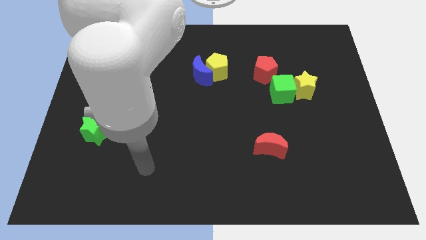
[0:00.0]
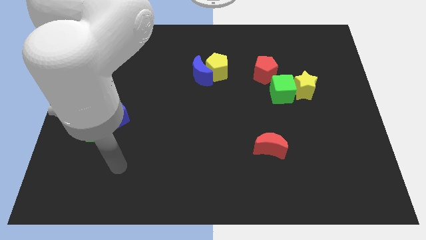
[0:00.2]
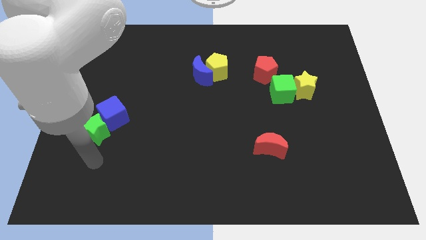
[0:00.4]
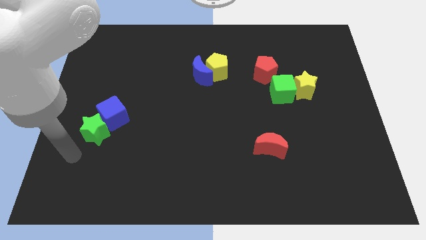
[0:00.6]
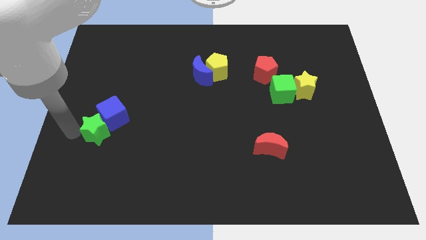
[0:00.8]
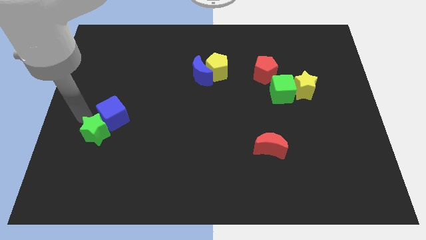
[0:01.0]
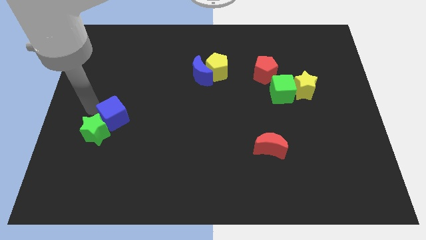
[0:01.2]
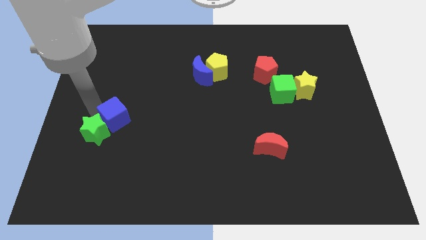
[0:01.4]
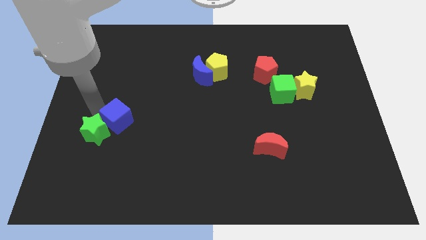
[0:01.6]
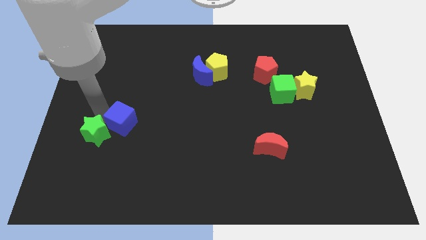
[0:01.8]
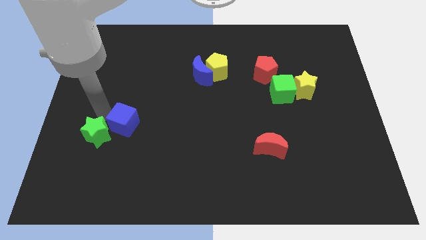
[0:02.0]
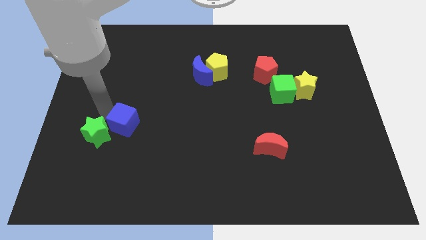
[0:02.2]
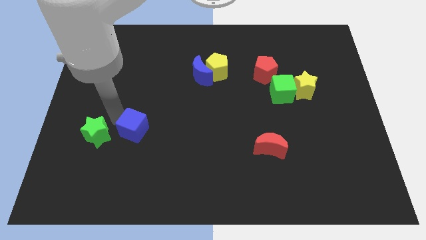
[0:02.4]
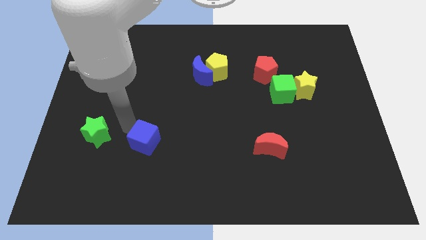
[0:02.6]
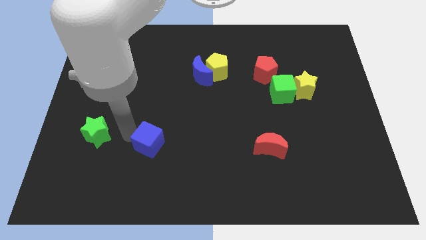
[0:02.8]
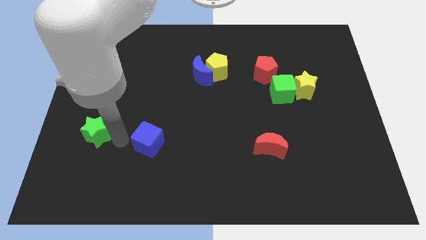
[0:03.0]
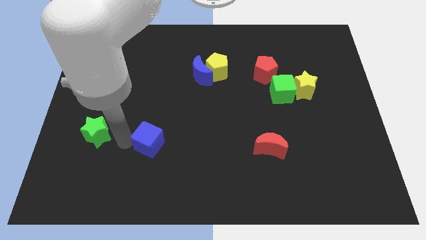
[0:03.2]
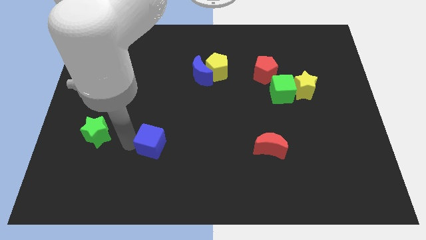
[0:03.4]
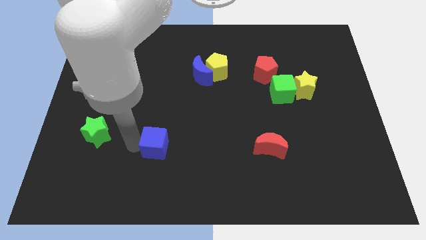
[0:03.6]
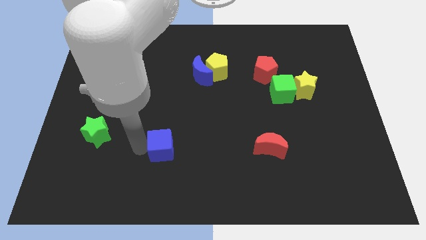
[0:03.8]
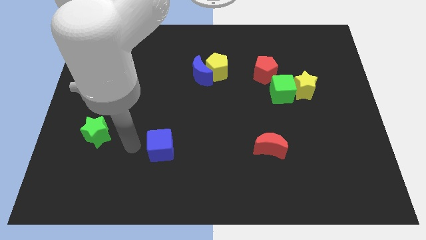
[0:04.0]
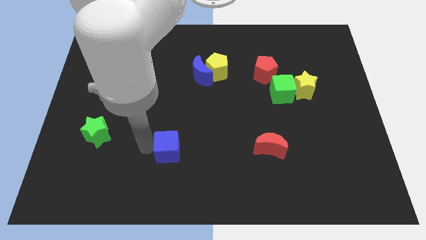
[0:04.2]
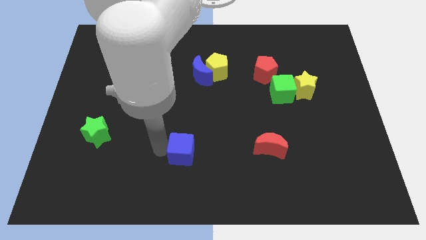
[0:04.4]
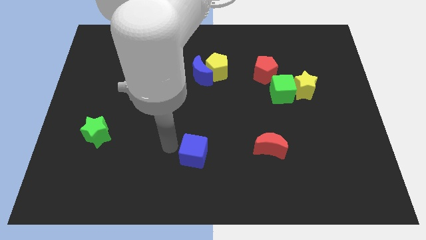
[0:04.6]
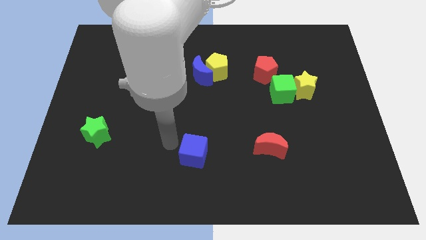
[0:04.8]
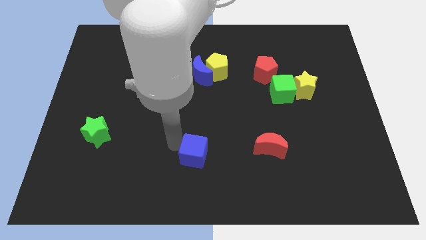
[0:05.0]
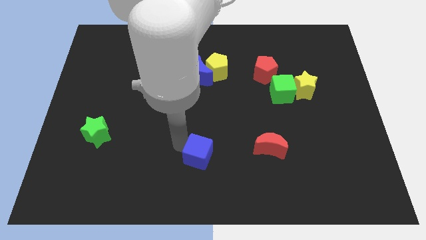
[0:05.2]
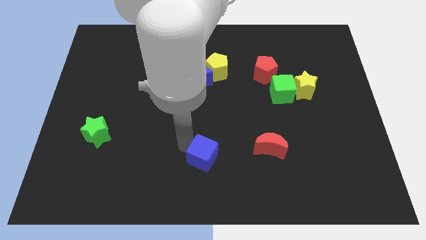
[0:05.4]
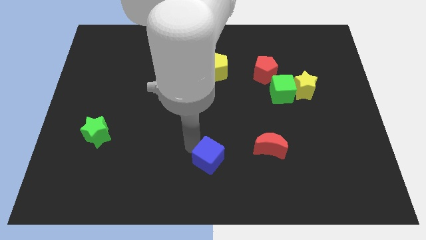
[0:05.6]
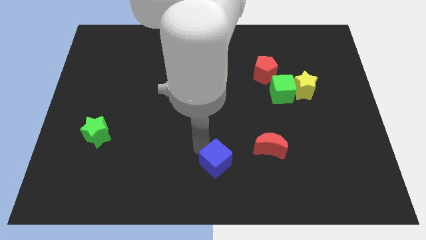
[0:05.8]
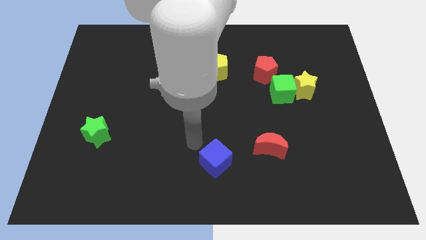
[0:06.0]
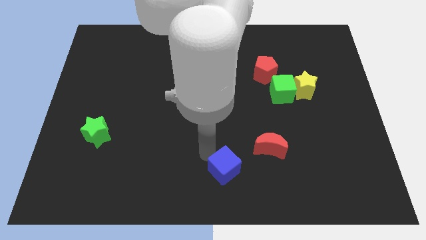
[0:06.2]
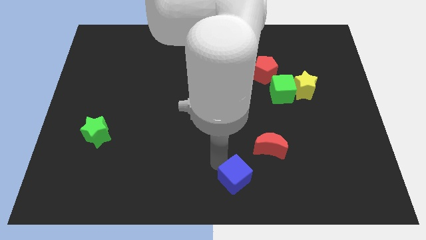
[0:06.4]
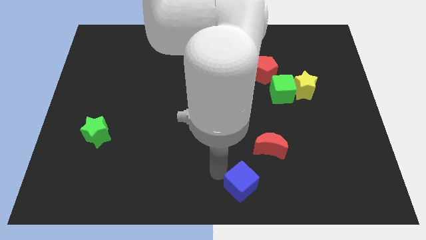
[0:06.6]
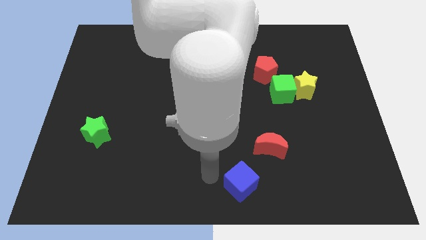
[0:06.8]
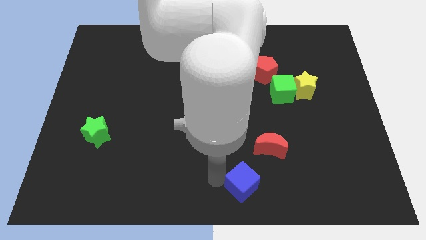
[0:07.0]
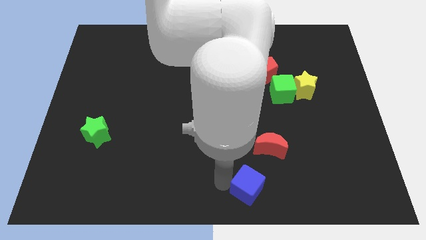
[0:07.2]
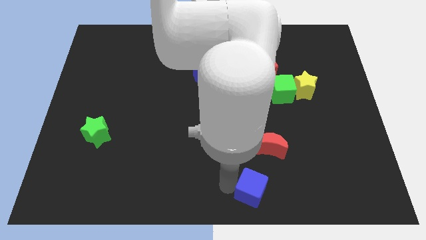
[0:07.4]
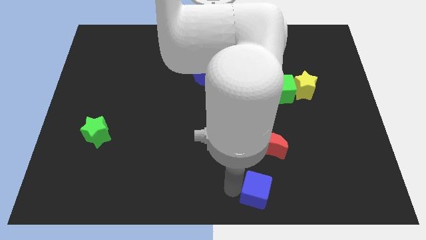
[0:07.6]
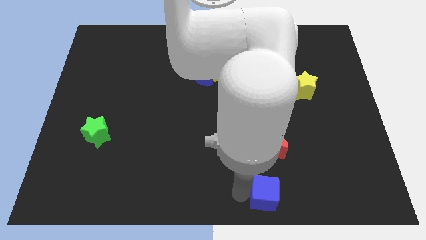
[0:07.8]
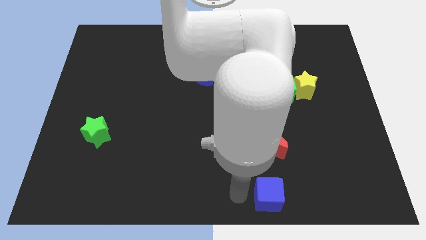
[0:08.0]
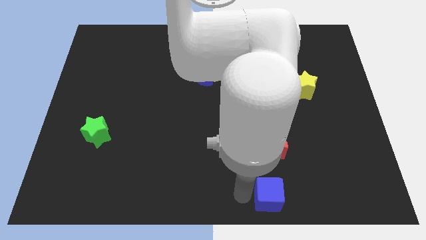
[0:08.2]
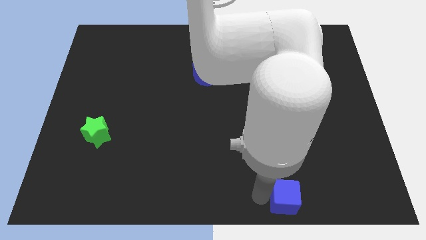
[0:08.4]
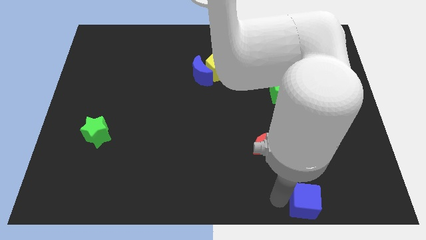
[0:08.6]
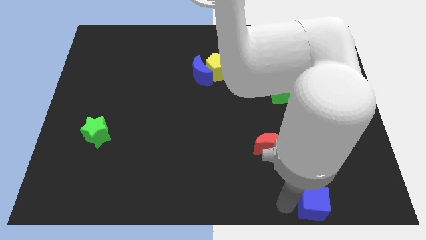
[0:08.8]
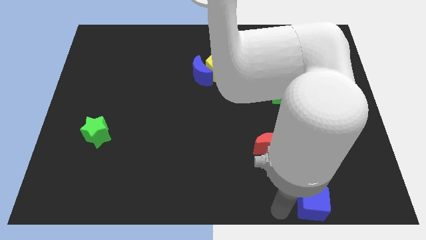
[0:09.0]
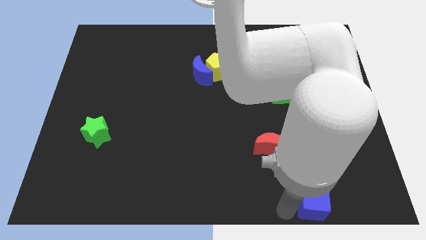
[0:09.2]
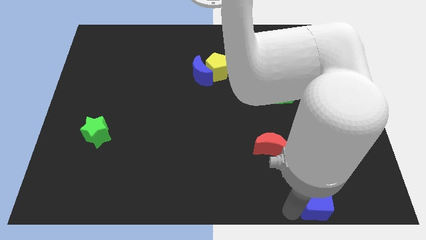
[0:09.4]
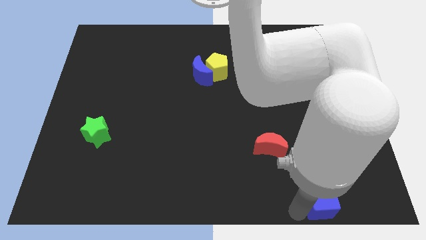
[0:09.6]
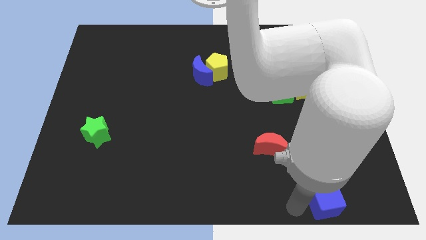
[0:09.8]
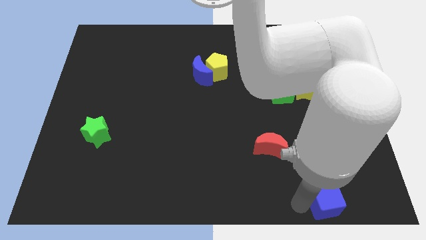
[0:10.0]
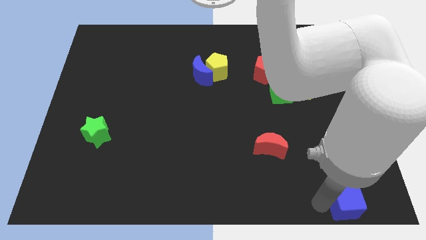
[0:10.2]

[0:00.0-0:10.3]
put the blue cube to the bottom right of the board

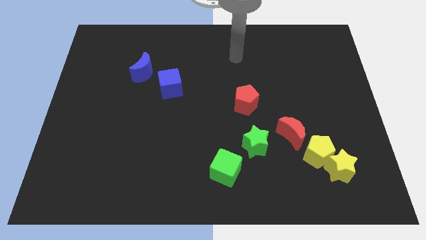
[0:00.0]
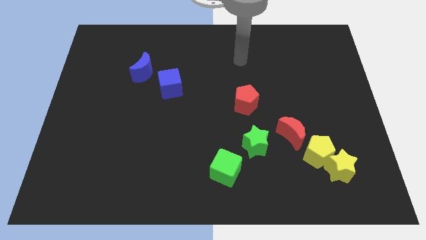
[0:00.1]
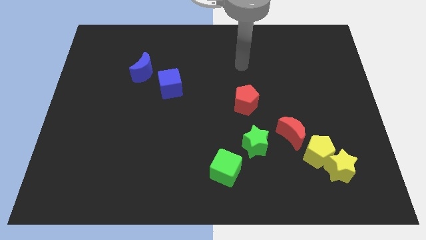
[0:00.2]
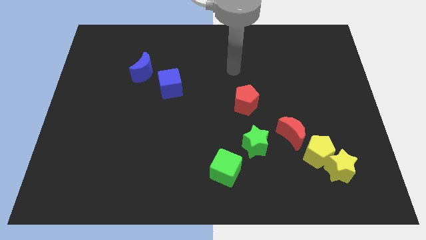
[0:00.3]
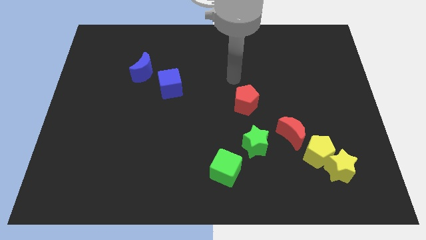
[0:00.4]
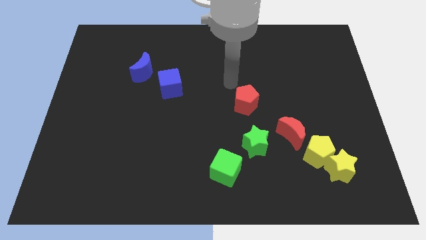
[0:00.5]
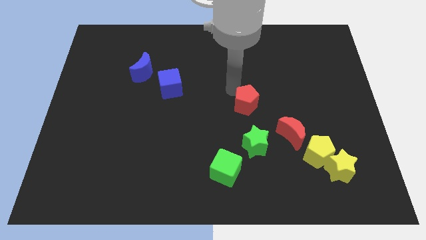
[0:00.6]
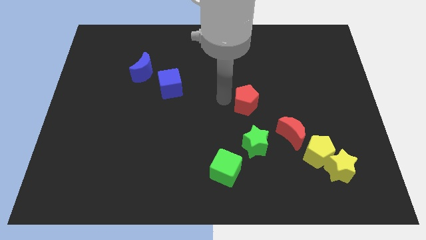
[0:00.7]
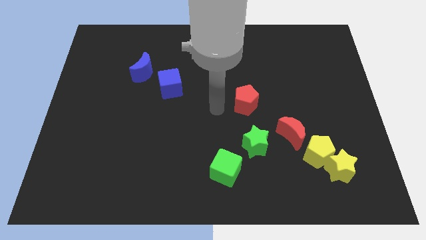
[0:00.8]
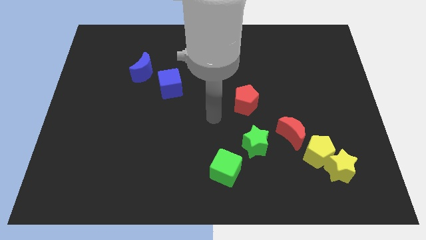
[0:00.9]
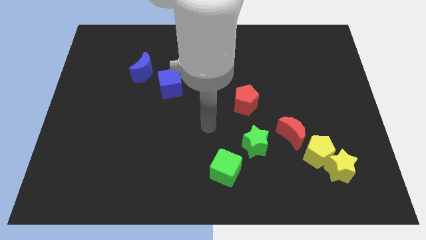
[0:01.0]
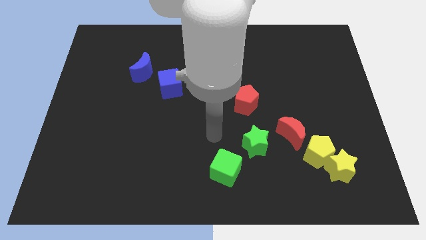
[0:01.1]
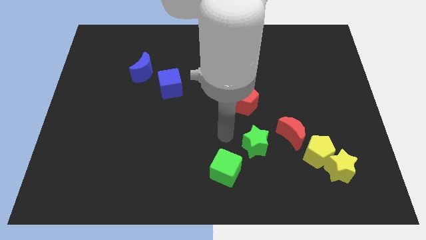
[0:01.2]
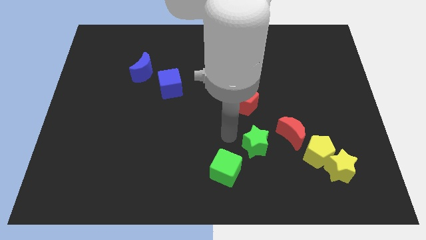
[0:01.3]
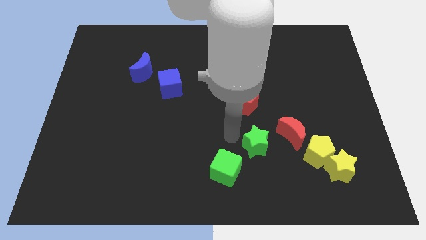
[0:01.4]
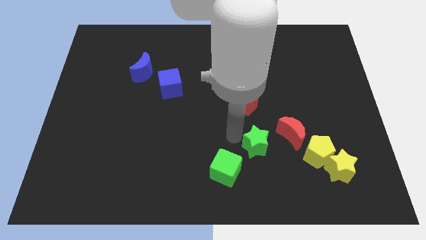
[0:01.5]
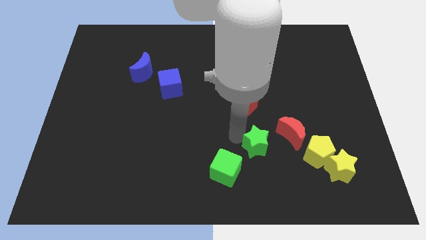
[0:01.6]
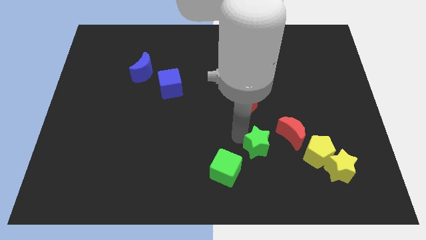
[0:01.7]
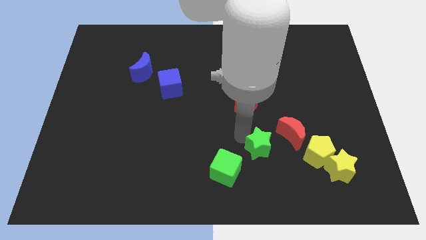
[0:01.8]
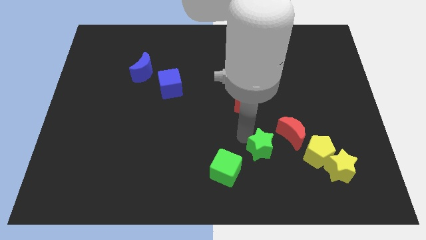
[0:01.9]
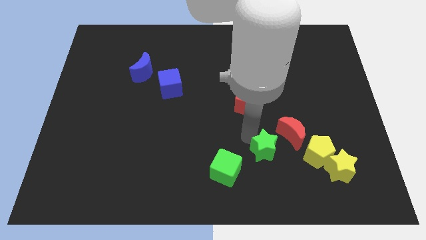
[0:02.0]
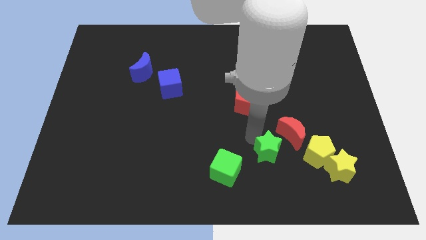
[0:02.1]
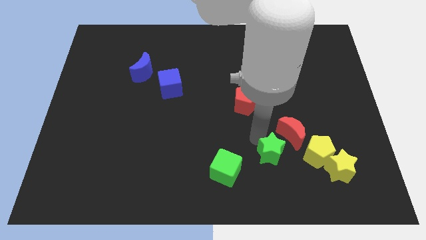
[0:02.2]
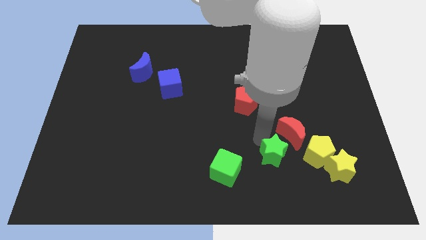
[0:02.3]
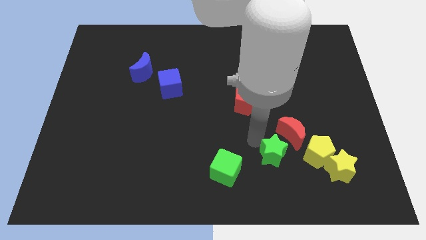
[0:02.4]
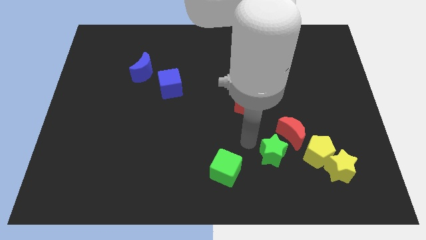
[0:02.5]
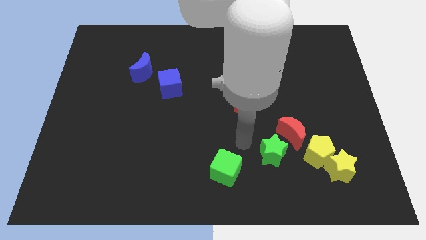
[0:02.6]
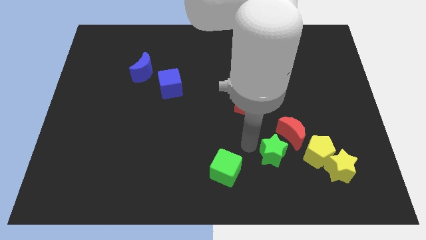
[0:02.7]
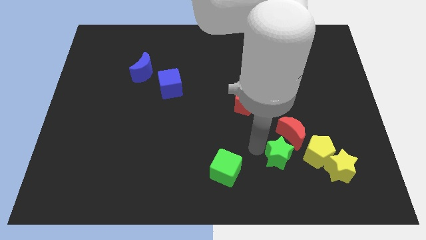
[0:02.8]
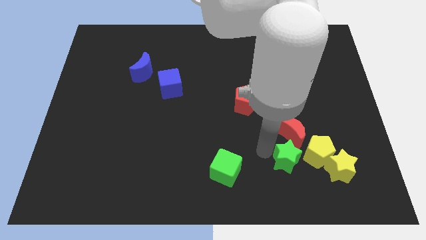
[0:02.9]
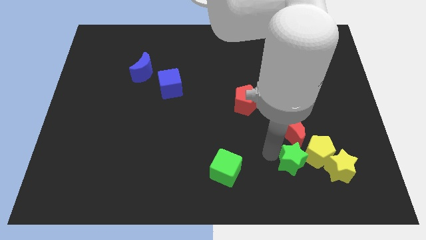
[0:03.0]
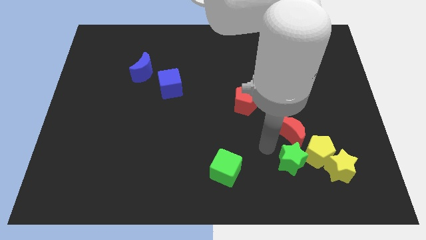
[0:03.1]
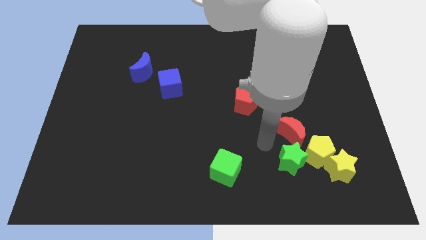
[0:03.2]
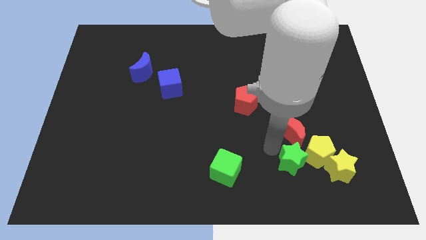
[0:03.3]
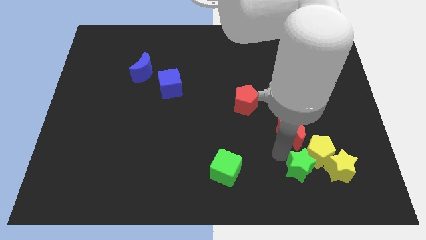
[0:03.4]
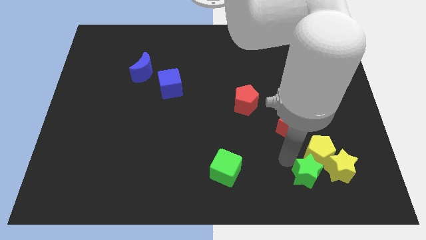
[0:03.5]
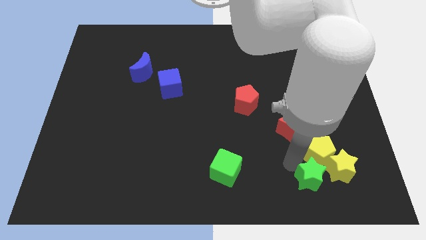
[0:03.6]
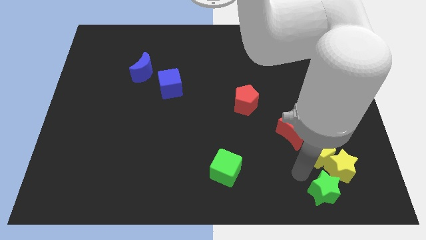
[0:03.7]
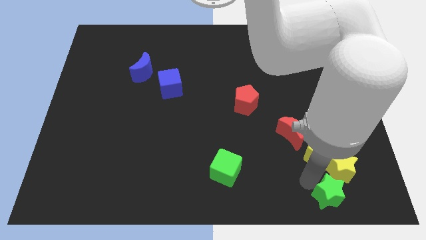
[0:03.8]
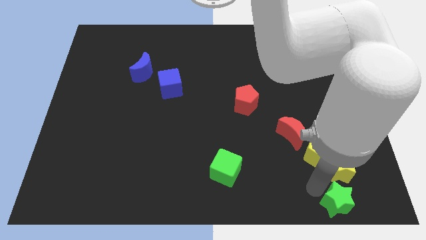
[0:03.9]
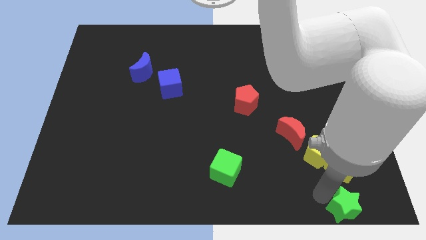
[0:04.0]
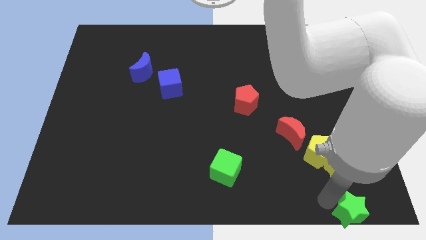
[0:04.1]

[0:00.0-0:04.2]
put the green star to the bottom right of the board
